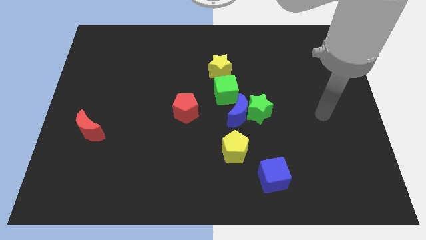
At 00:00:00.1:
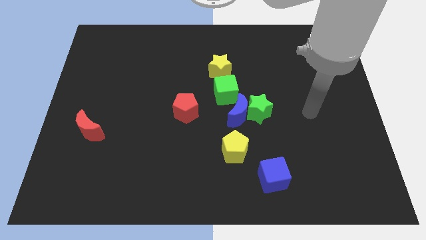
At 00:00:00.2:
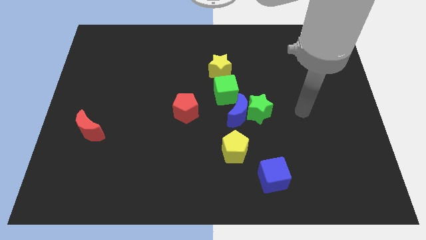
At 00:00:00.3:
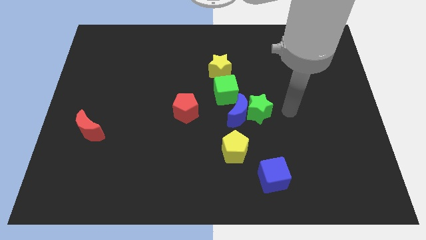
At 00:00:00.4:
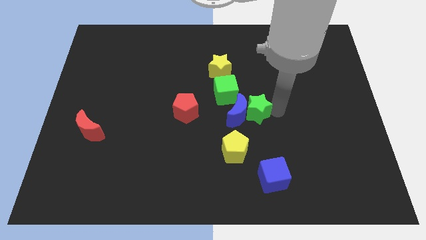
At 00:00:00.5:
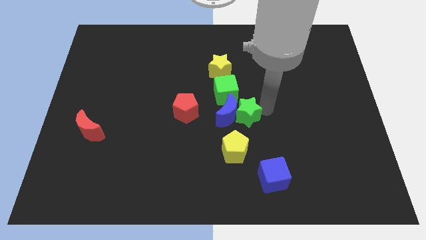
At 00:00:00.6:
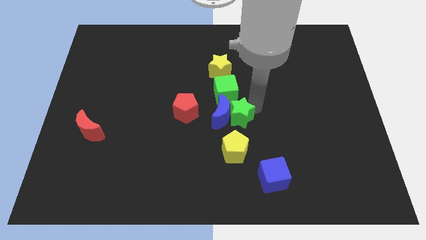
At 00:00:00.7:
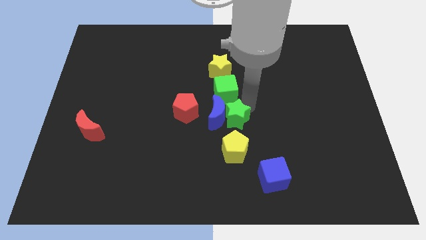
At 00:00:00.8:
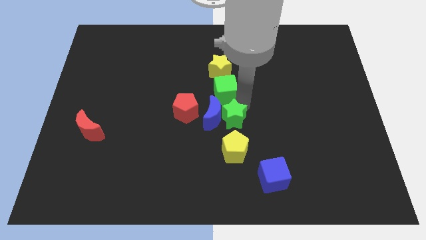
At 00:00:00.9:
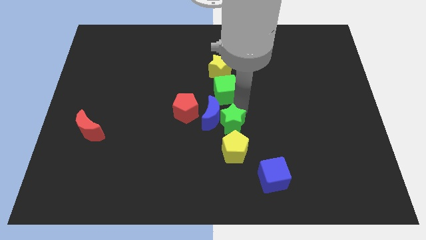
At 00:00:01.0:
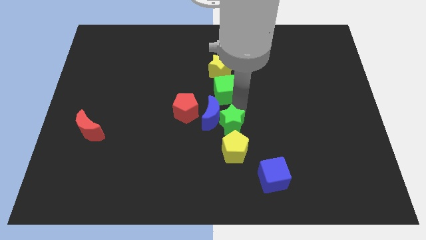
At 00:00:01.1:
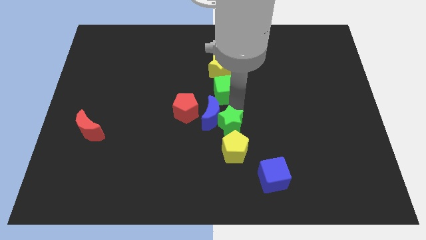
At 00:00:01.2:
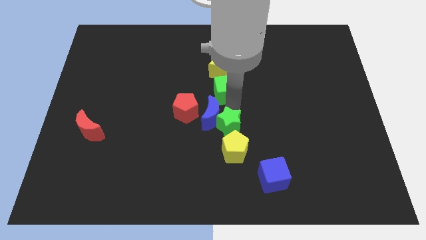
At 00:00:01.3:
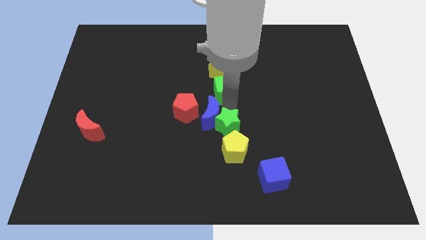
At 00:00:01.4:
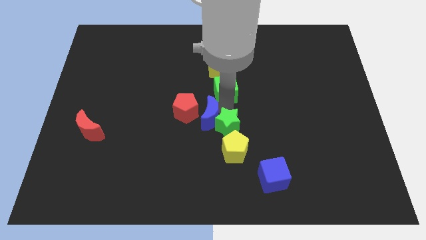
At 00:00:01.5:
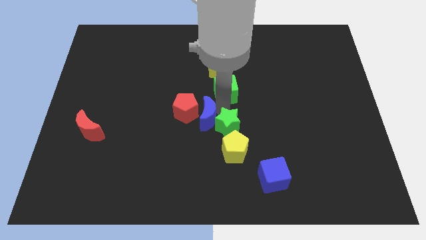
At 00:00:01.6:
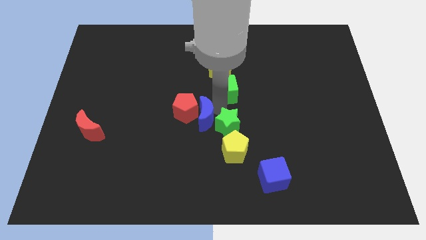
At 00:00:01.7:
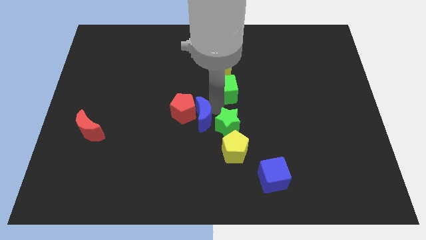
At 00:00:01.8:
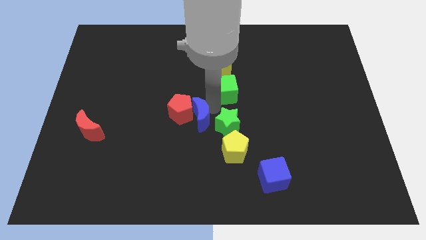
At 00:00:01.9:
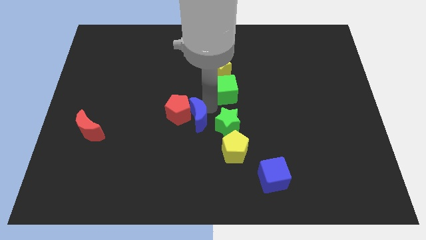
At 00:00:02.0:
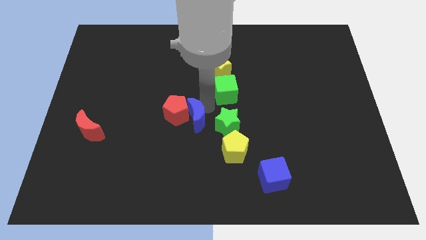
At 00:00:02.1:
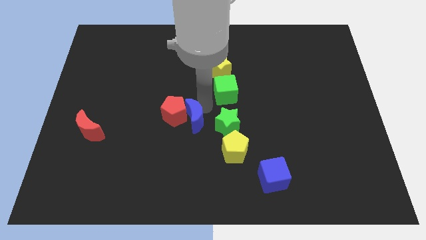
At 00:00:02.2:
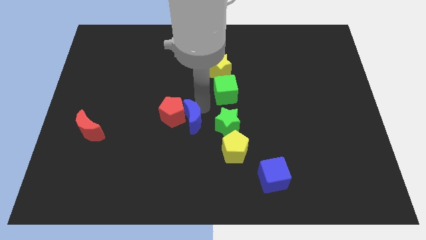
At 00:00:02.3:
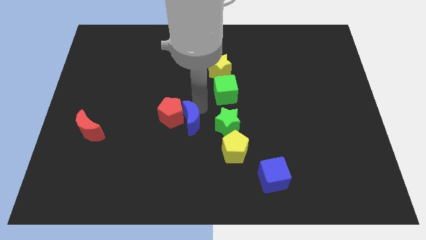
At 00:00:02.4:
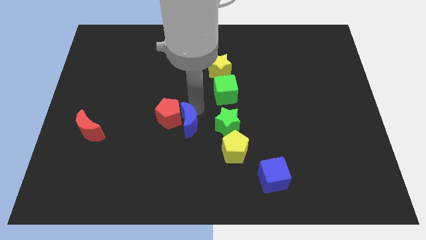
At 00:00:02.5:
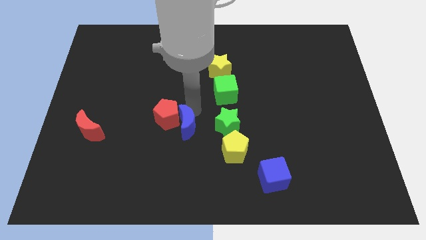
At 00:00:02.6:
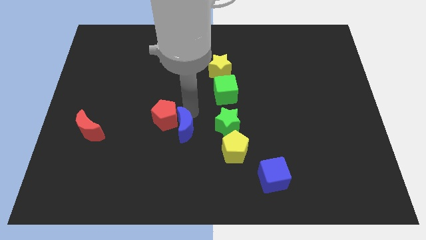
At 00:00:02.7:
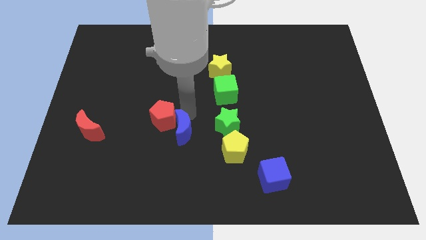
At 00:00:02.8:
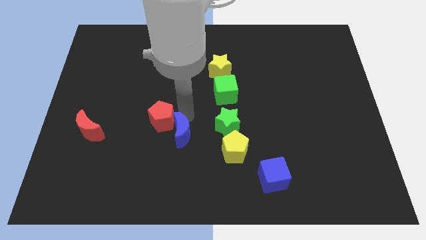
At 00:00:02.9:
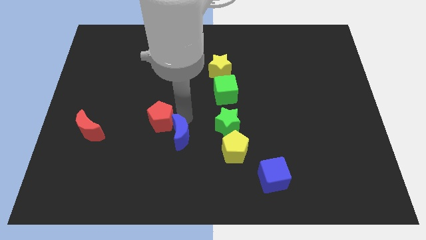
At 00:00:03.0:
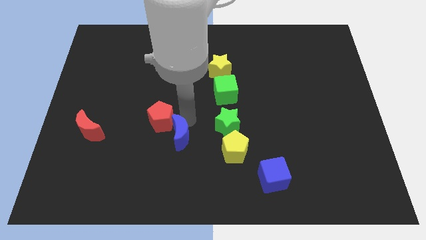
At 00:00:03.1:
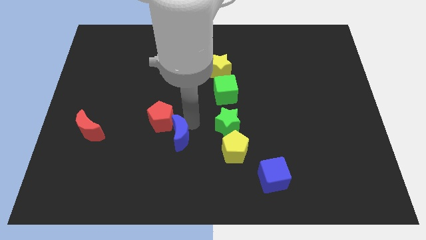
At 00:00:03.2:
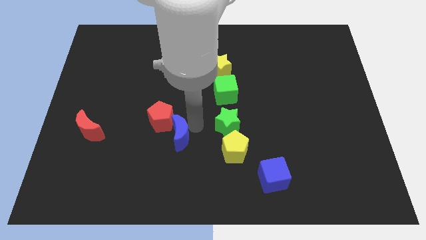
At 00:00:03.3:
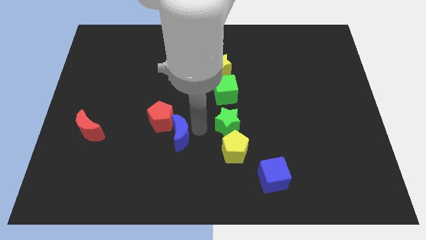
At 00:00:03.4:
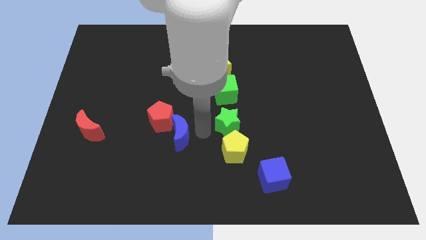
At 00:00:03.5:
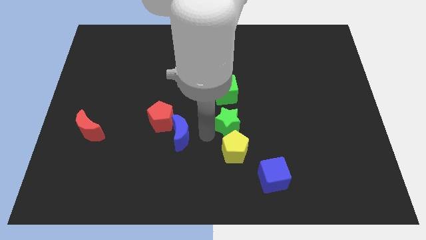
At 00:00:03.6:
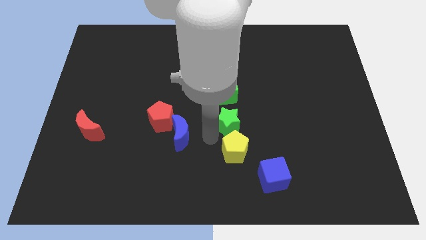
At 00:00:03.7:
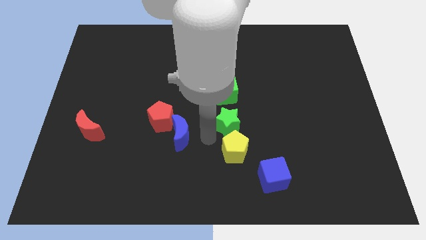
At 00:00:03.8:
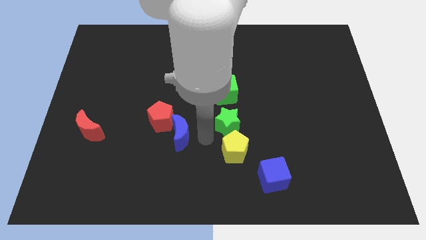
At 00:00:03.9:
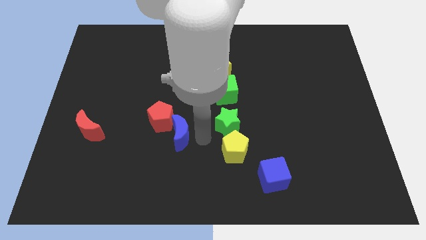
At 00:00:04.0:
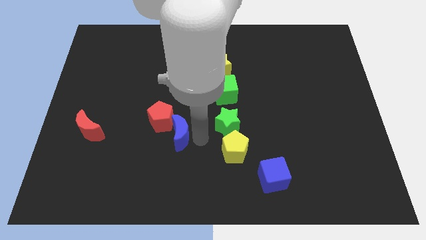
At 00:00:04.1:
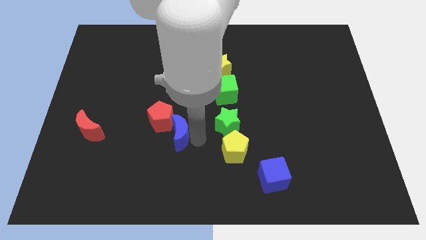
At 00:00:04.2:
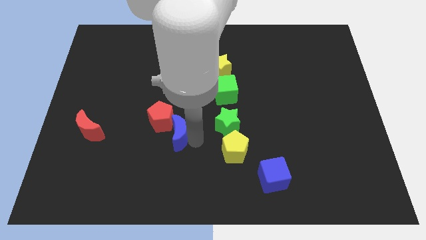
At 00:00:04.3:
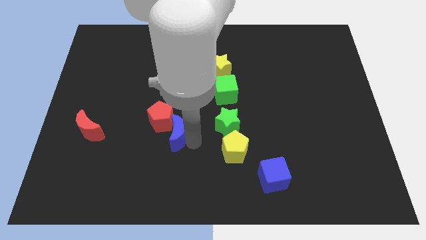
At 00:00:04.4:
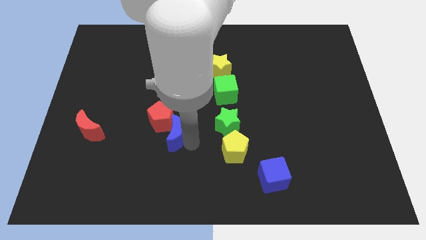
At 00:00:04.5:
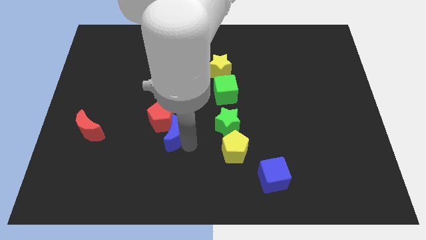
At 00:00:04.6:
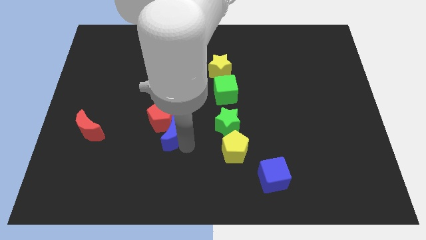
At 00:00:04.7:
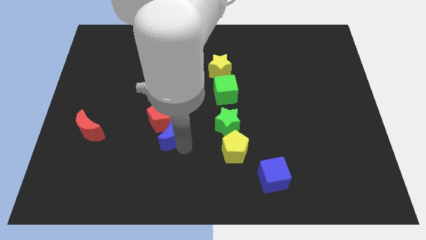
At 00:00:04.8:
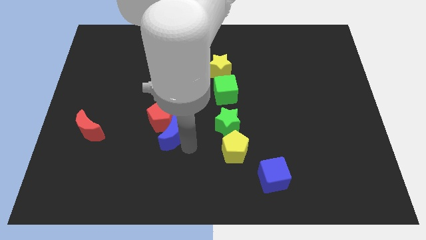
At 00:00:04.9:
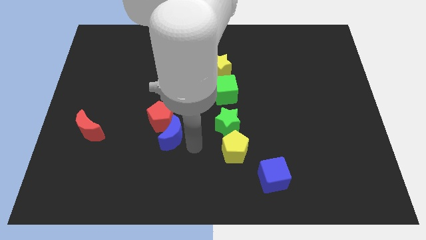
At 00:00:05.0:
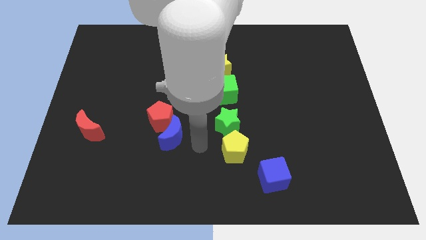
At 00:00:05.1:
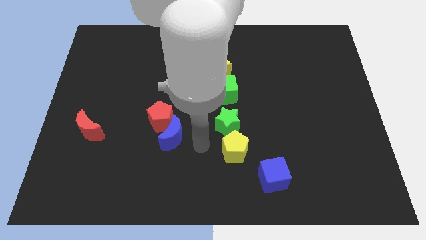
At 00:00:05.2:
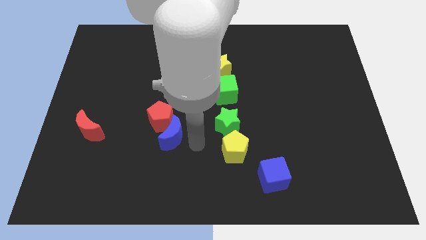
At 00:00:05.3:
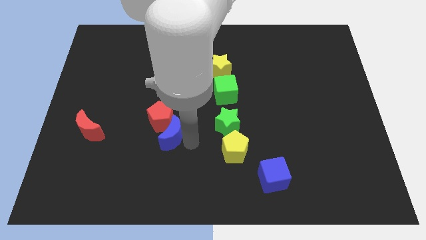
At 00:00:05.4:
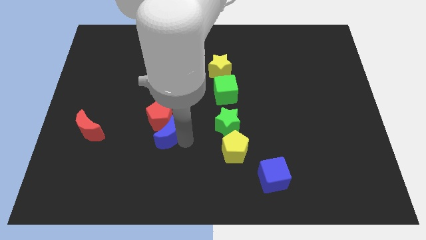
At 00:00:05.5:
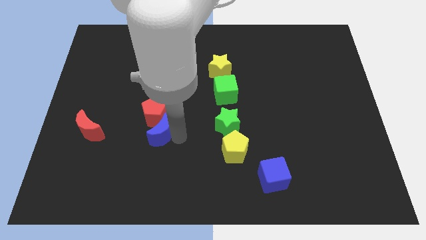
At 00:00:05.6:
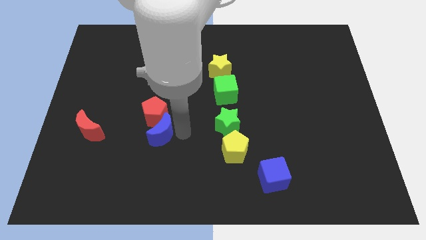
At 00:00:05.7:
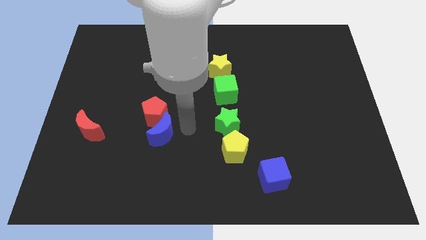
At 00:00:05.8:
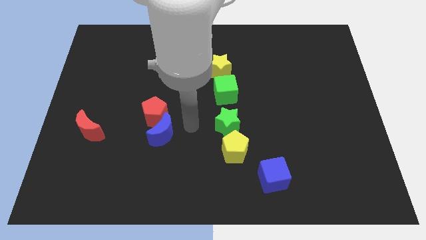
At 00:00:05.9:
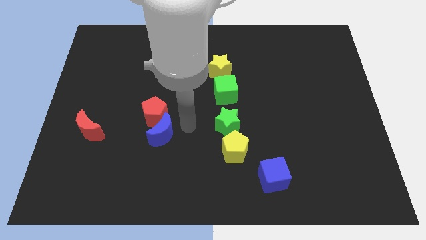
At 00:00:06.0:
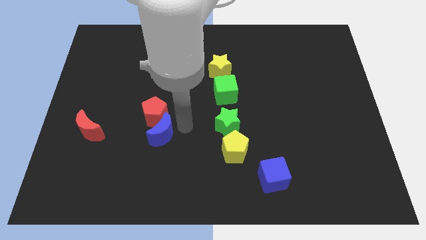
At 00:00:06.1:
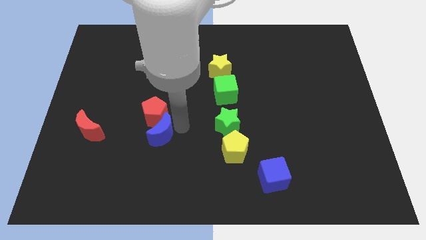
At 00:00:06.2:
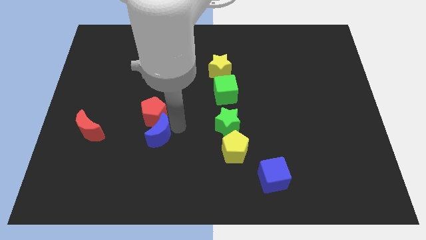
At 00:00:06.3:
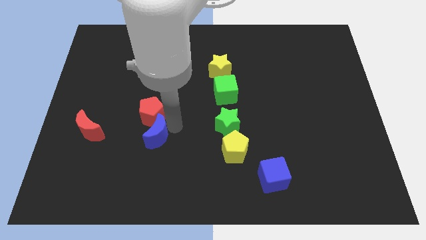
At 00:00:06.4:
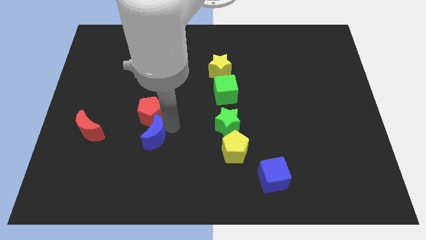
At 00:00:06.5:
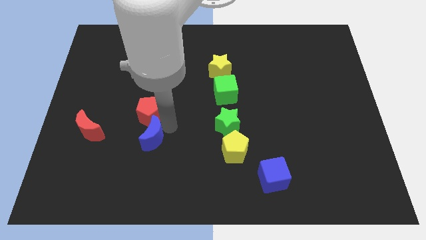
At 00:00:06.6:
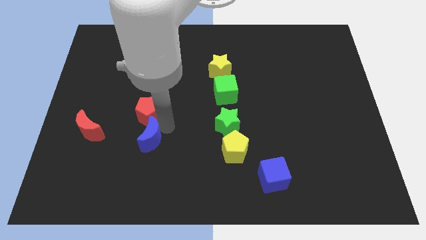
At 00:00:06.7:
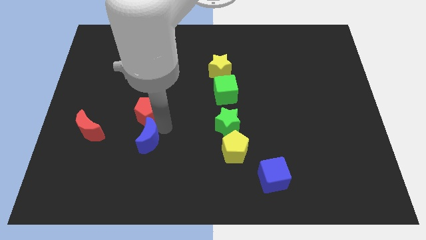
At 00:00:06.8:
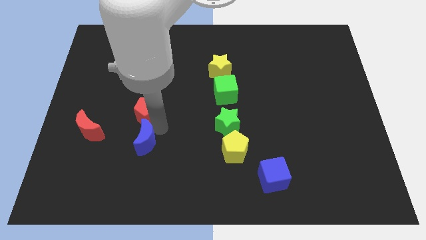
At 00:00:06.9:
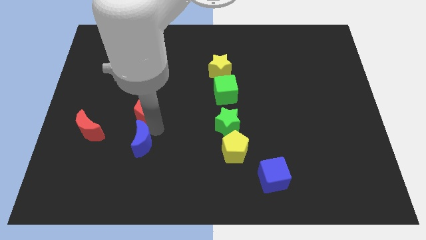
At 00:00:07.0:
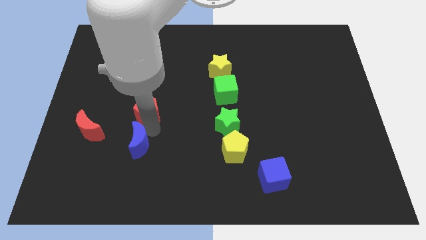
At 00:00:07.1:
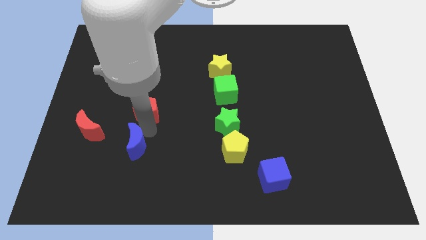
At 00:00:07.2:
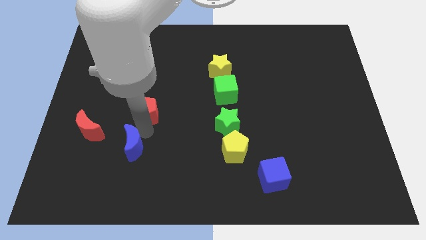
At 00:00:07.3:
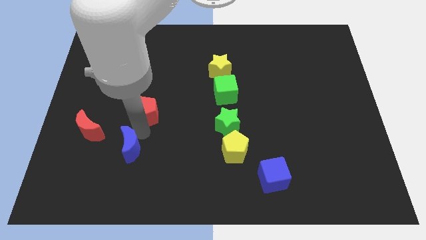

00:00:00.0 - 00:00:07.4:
push the blue moon diagonally down and to the right of the red moon
